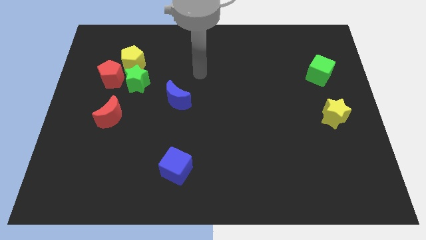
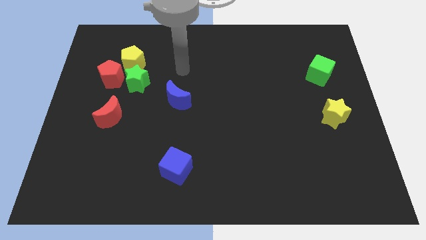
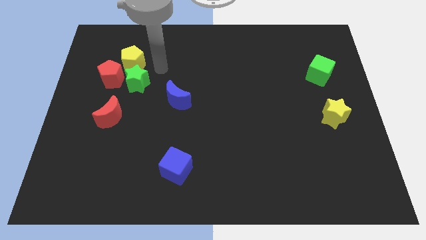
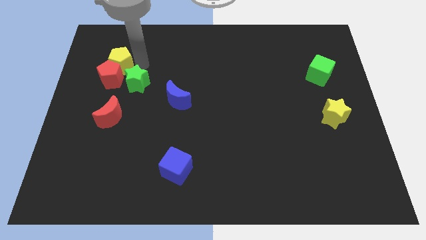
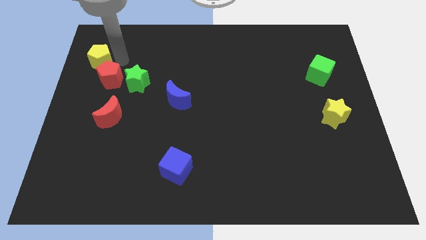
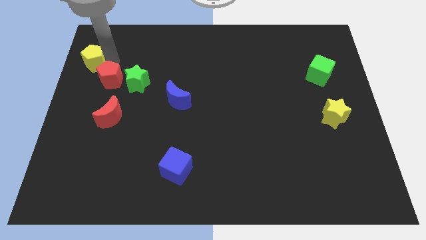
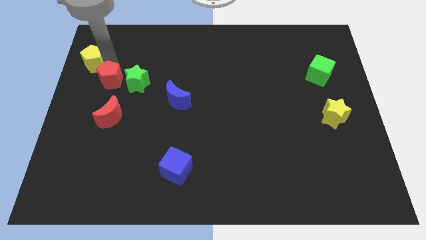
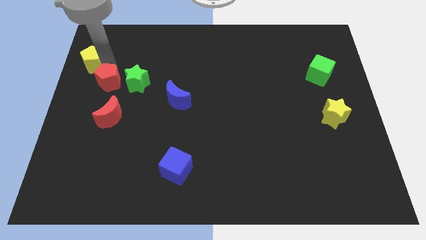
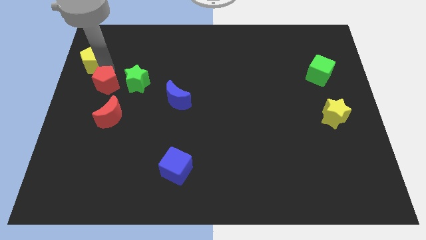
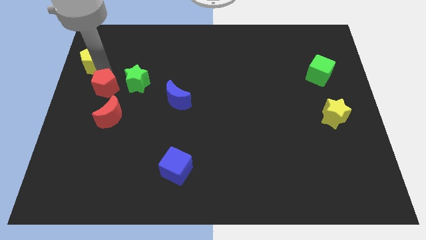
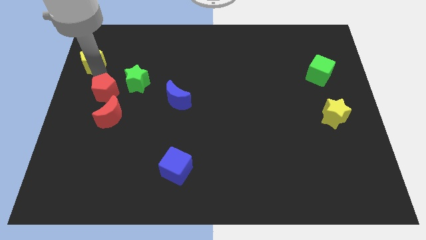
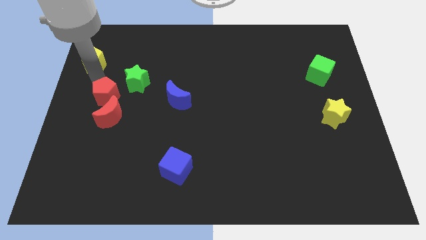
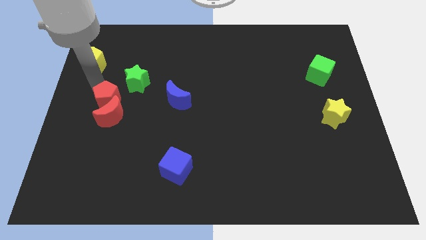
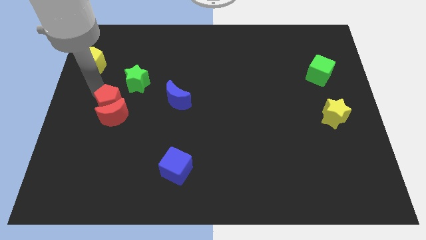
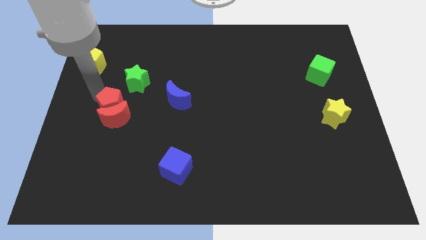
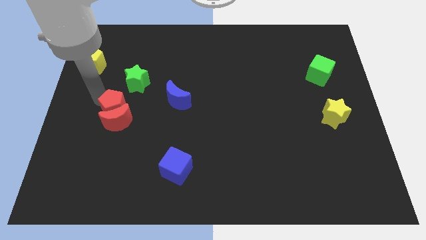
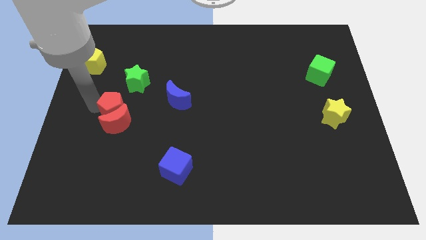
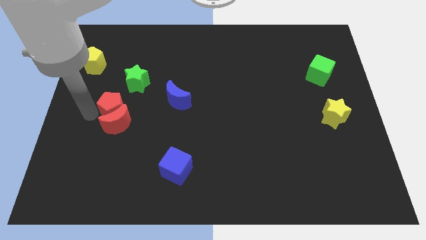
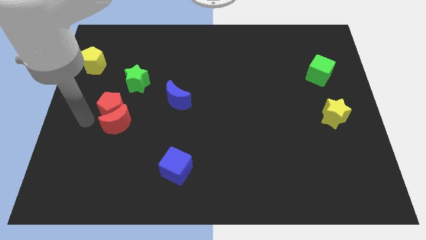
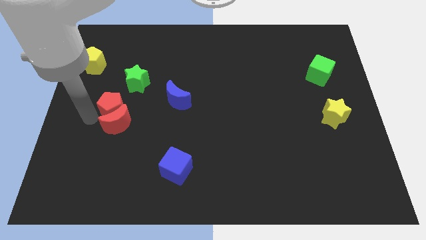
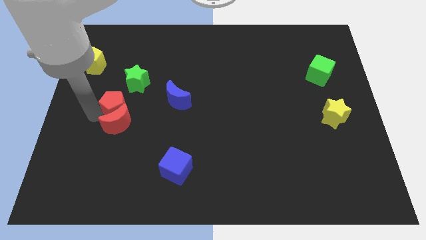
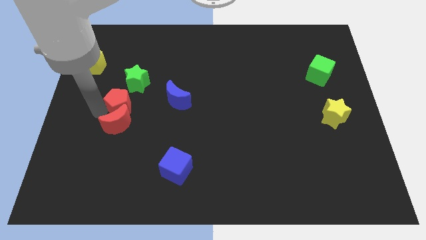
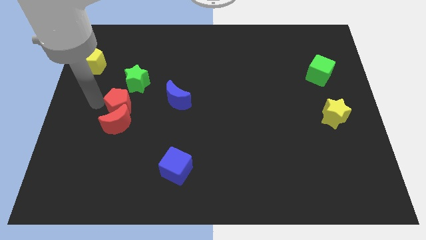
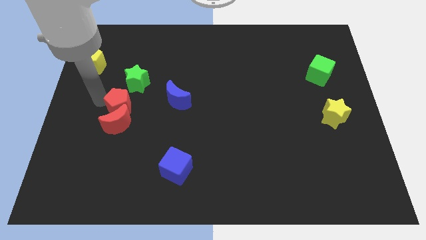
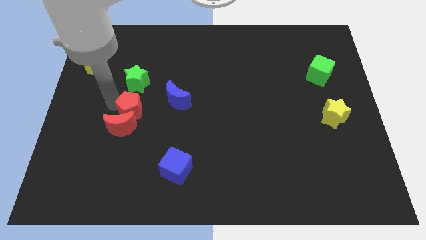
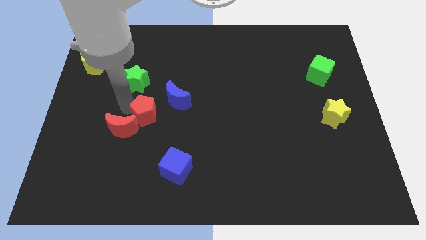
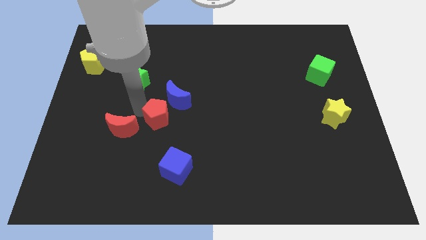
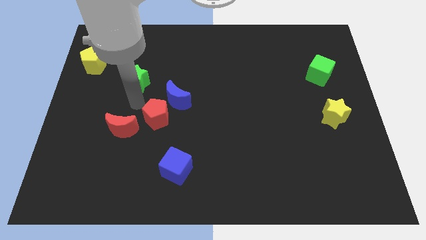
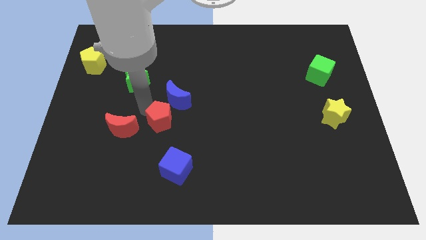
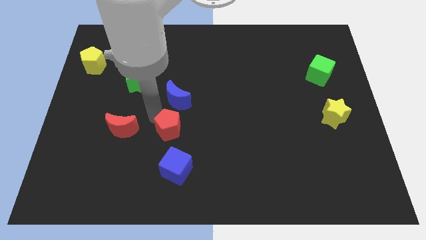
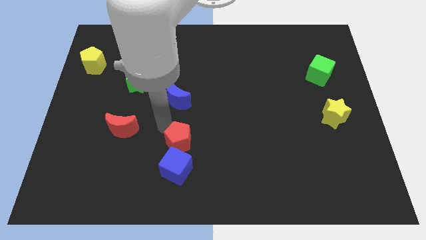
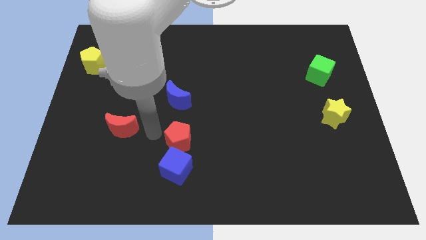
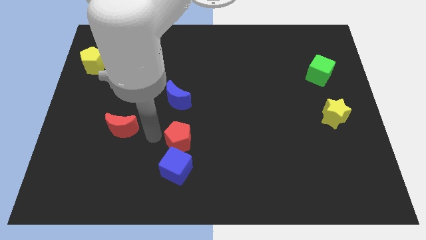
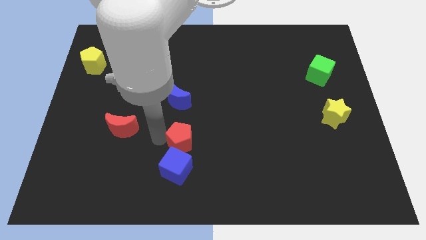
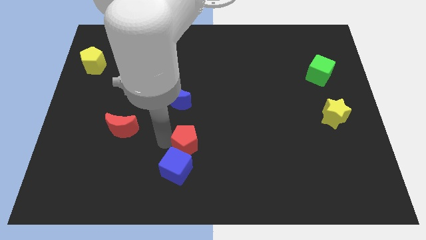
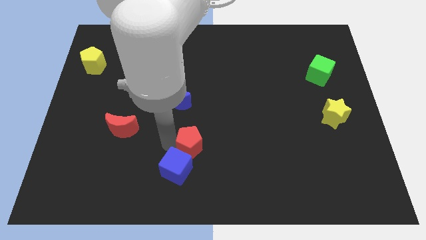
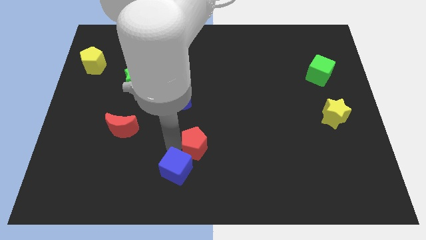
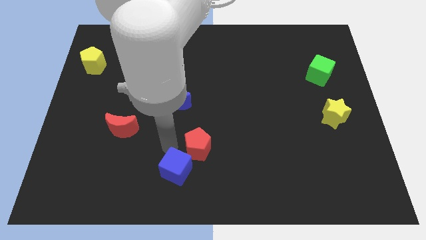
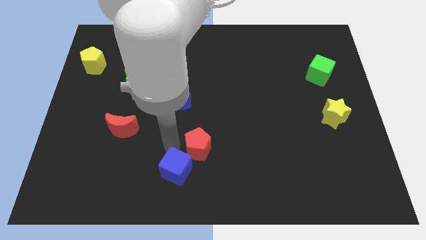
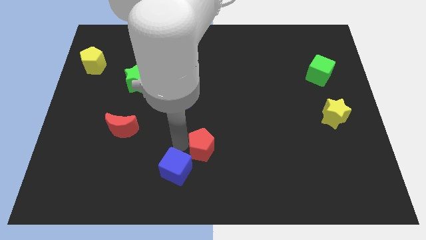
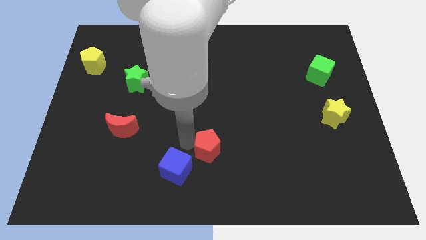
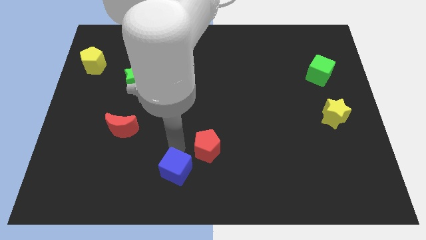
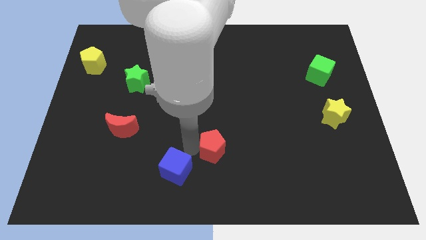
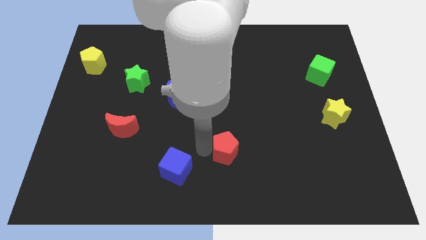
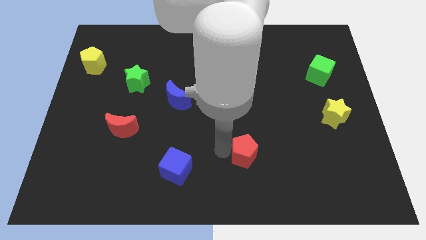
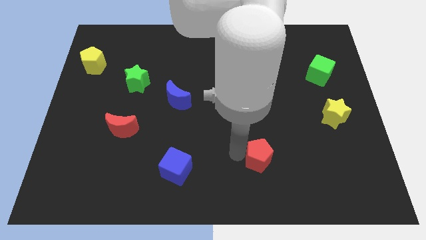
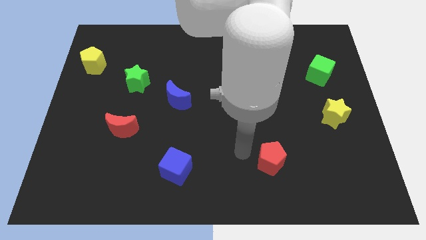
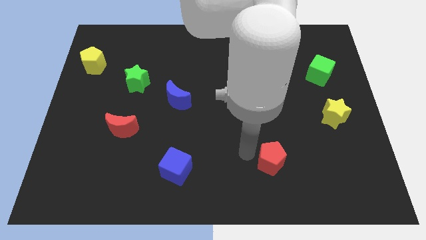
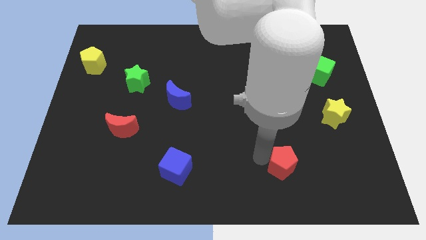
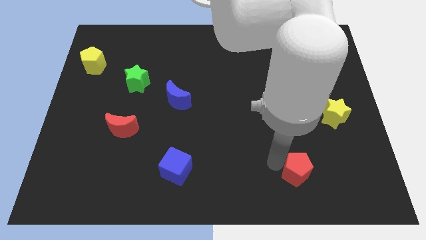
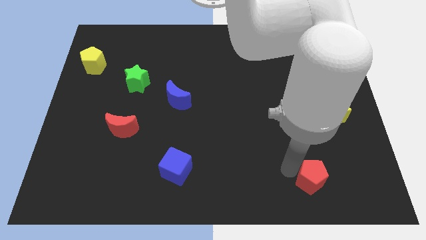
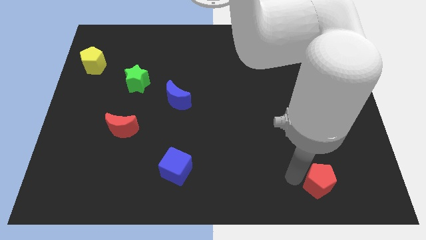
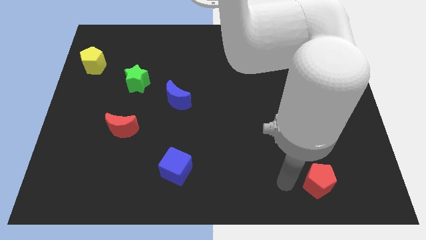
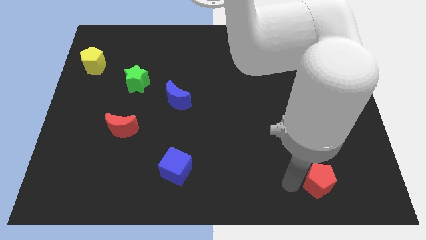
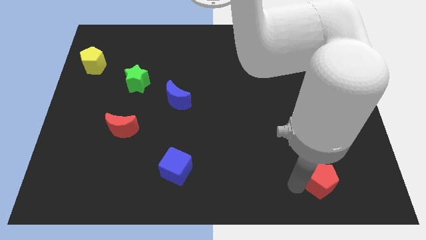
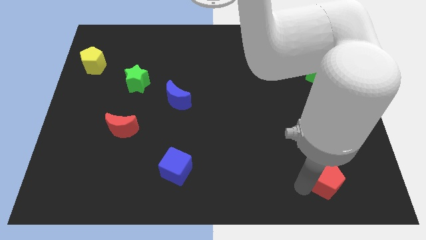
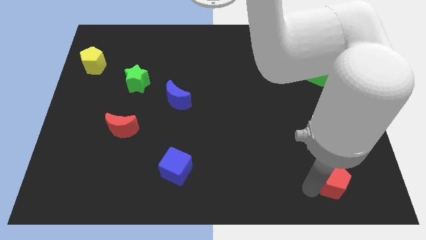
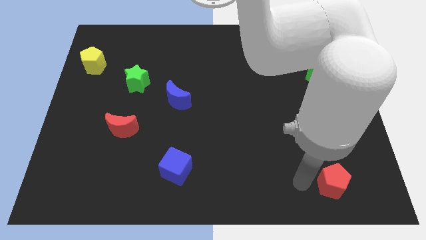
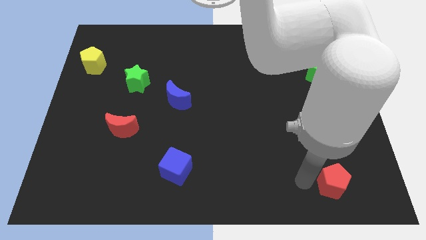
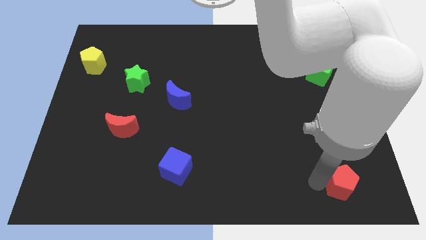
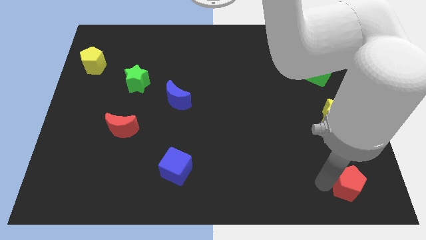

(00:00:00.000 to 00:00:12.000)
slide the red pentagon to the bottom right corner
